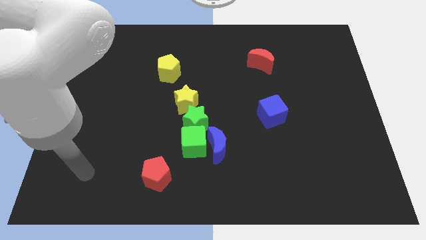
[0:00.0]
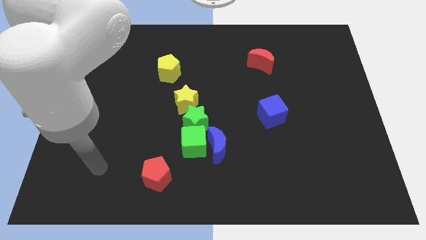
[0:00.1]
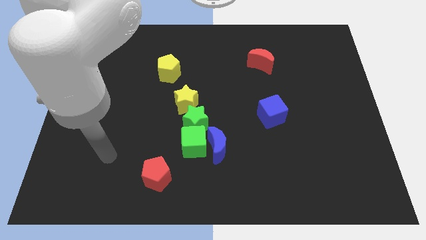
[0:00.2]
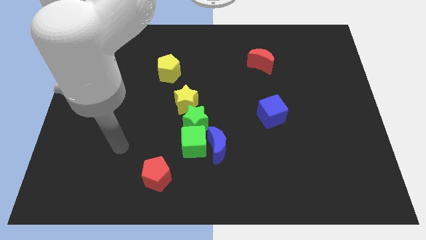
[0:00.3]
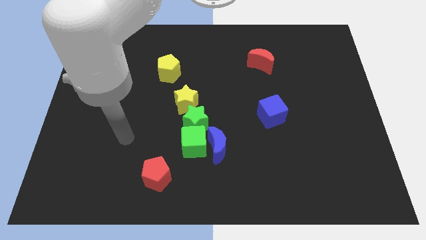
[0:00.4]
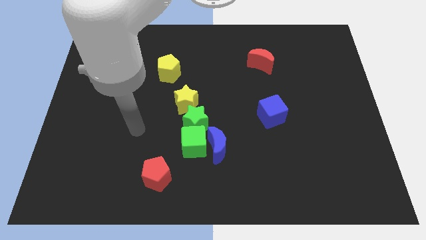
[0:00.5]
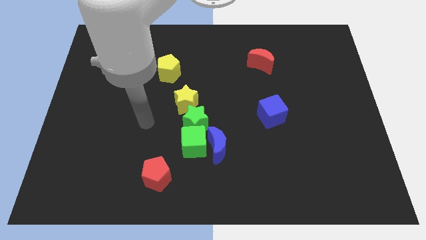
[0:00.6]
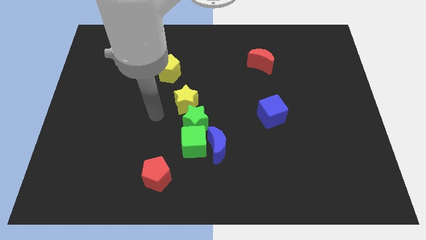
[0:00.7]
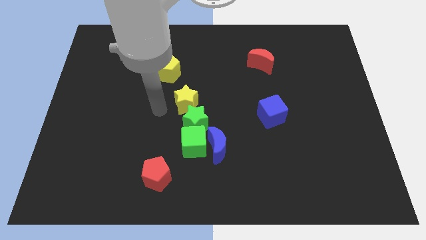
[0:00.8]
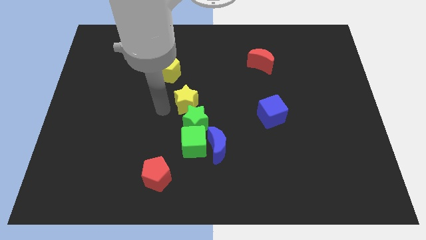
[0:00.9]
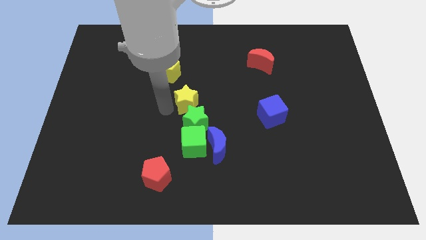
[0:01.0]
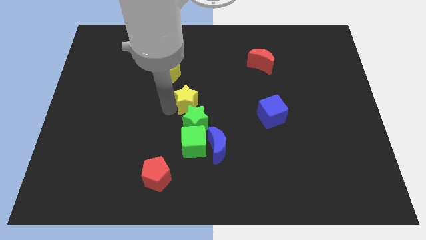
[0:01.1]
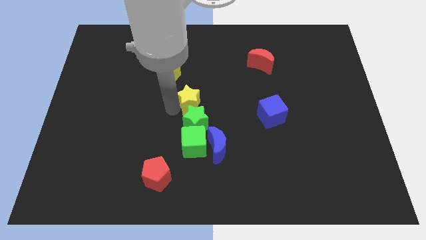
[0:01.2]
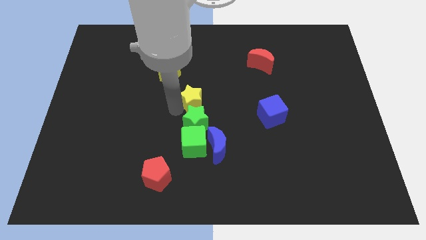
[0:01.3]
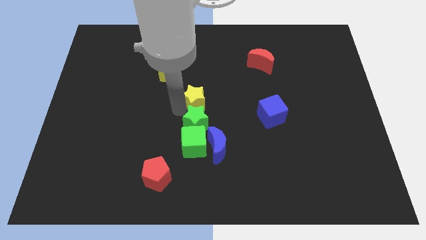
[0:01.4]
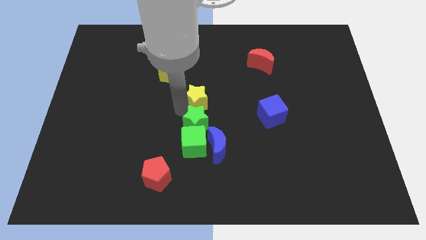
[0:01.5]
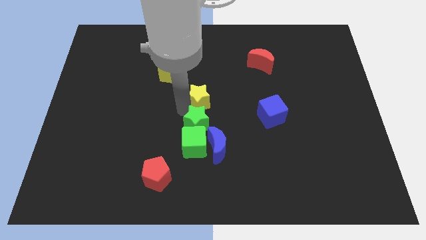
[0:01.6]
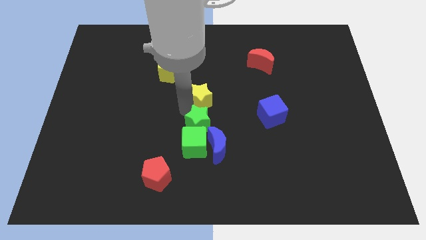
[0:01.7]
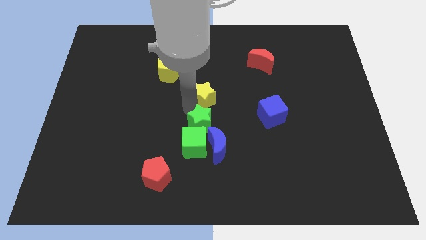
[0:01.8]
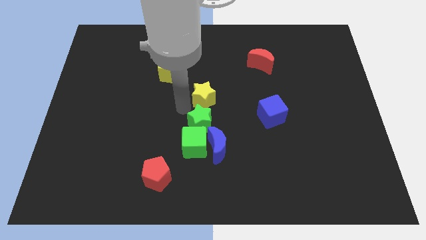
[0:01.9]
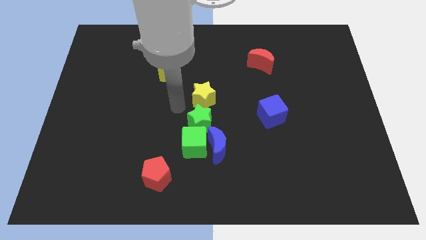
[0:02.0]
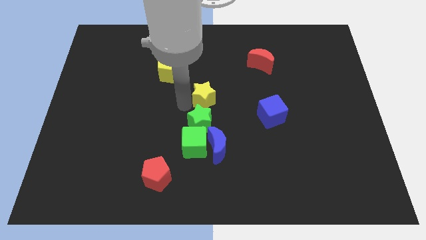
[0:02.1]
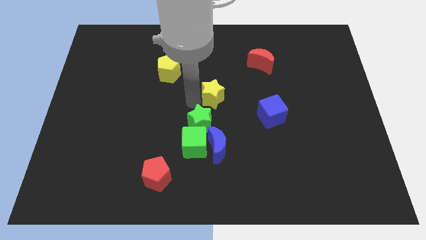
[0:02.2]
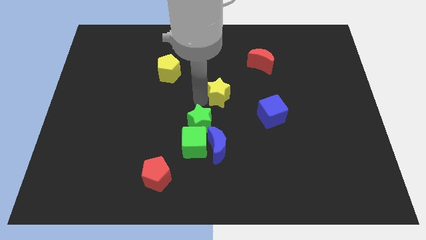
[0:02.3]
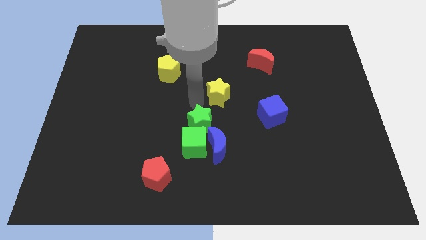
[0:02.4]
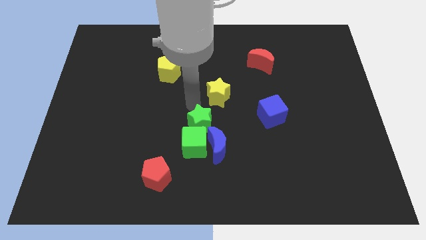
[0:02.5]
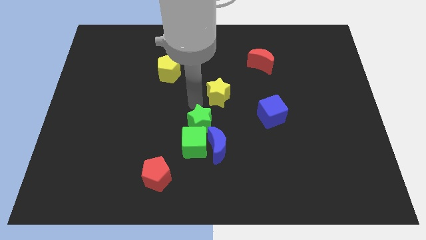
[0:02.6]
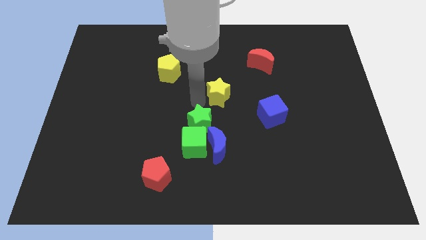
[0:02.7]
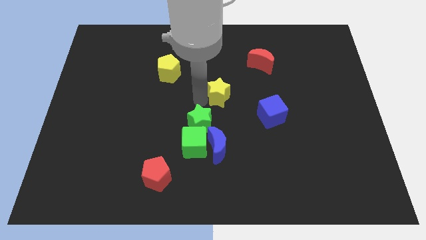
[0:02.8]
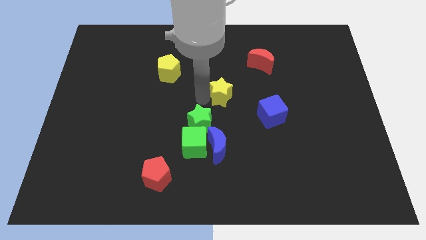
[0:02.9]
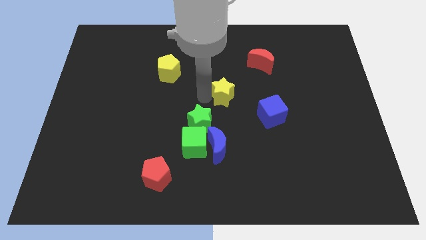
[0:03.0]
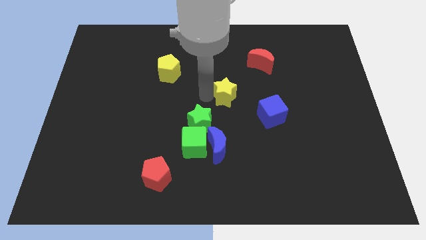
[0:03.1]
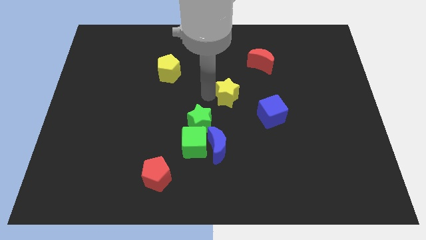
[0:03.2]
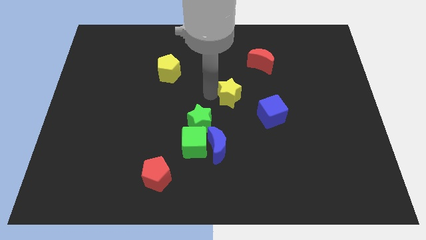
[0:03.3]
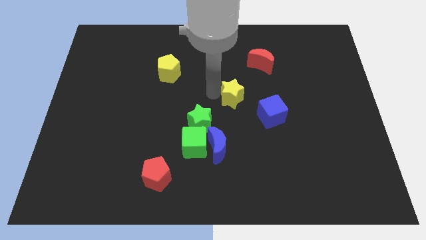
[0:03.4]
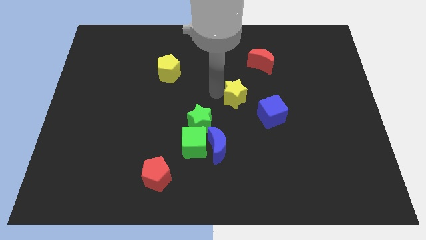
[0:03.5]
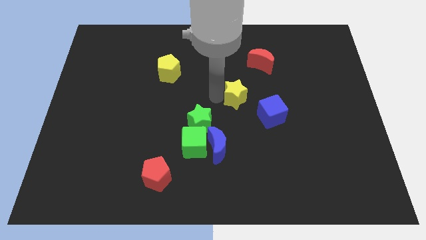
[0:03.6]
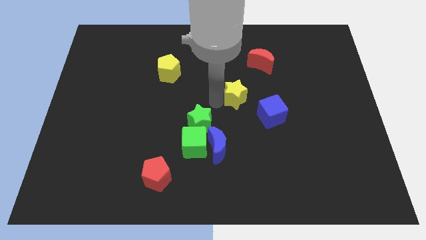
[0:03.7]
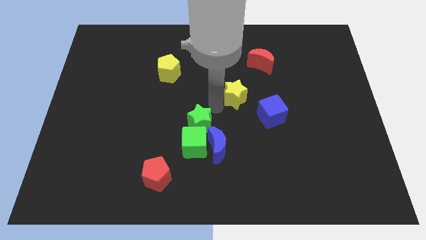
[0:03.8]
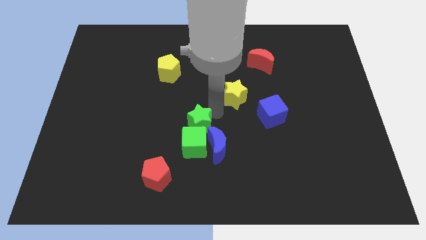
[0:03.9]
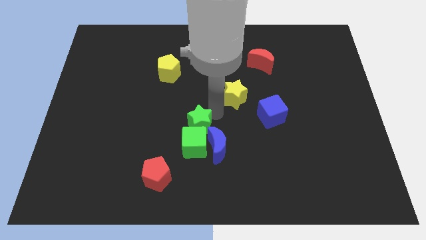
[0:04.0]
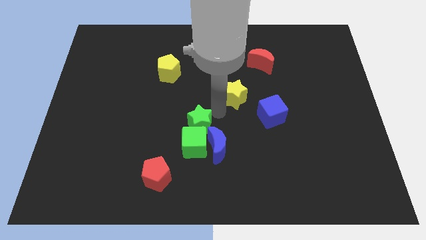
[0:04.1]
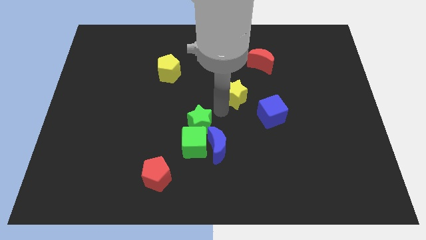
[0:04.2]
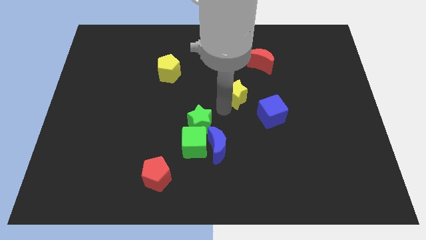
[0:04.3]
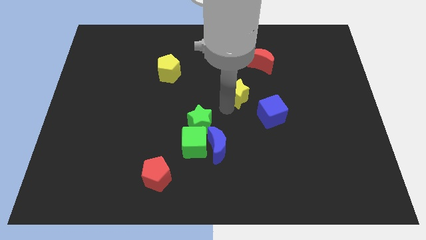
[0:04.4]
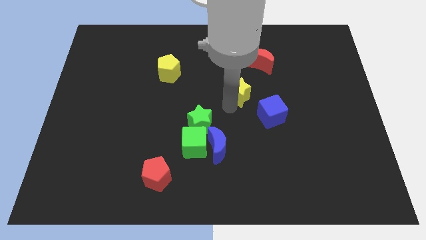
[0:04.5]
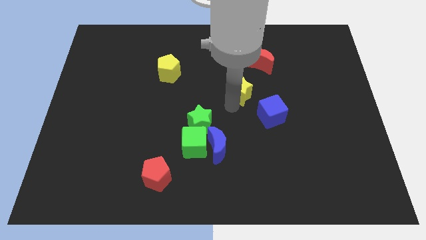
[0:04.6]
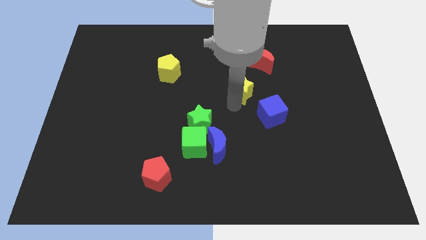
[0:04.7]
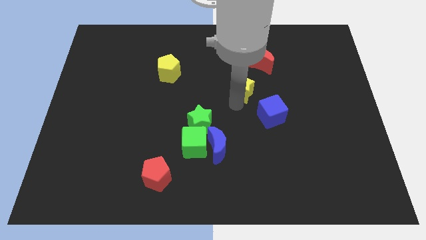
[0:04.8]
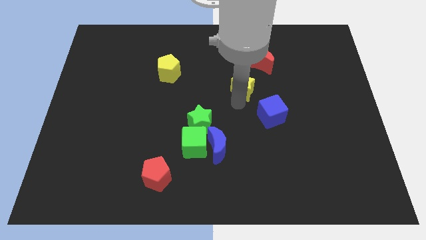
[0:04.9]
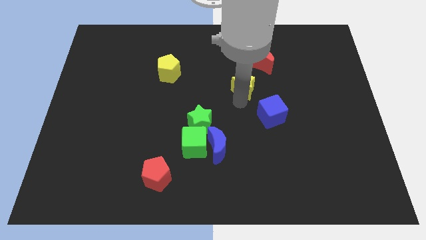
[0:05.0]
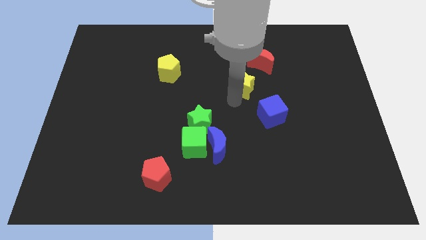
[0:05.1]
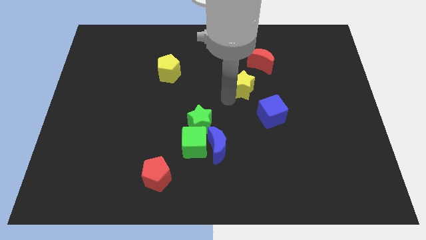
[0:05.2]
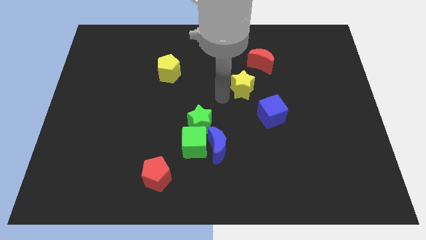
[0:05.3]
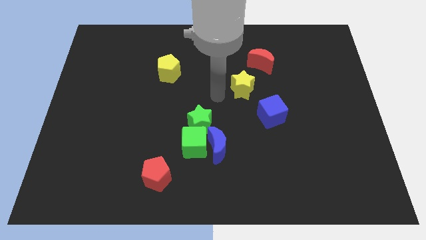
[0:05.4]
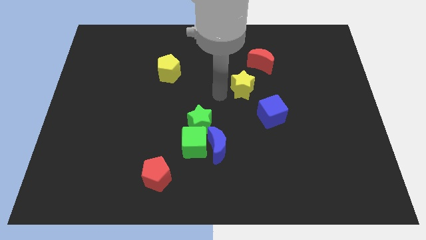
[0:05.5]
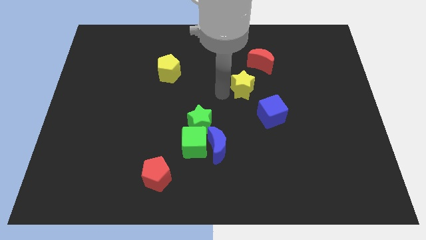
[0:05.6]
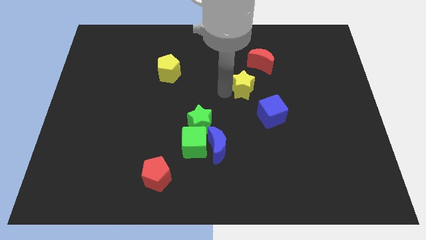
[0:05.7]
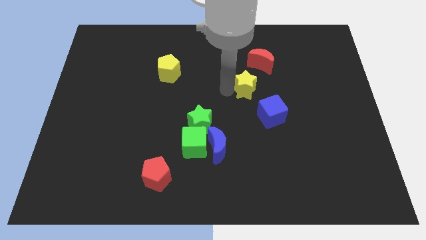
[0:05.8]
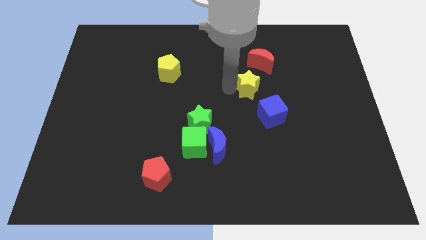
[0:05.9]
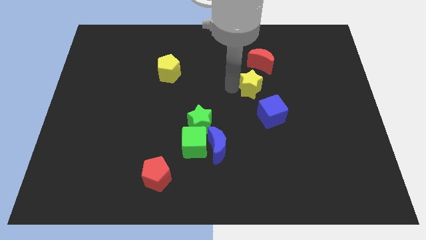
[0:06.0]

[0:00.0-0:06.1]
put the yellow star above the blue cube

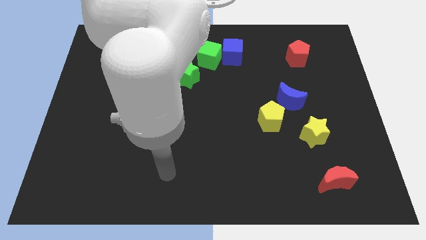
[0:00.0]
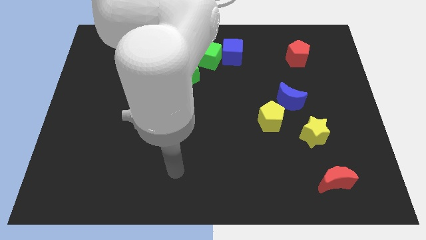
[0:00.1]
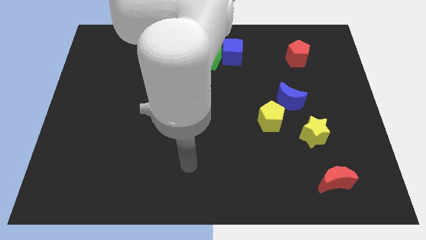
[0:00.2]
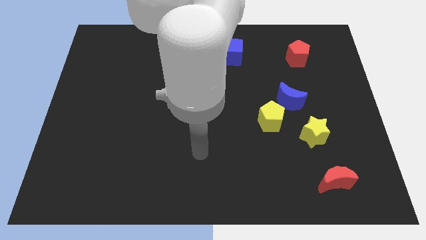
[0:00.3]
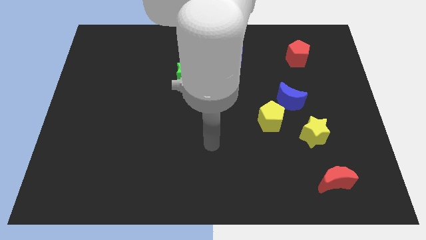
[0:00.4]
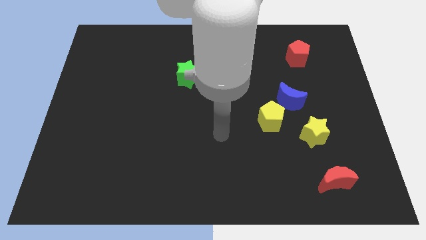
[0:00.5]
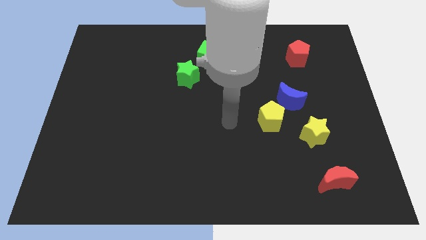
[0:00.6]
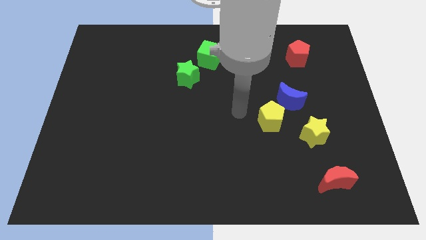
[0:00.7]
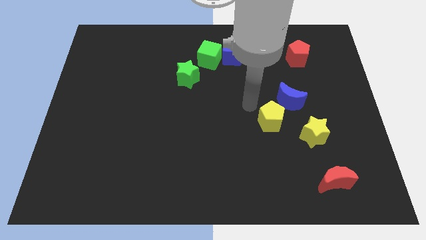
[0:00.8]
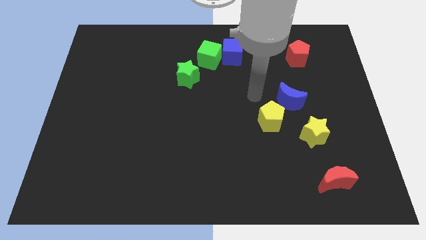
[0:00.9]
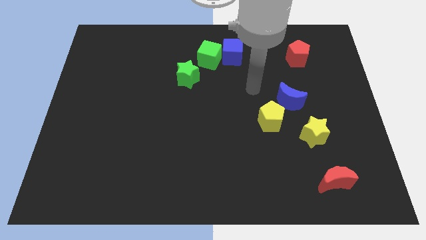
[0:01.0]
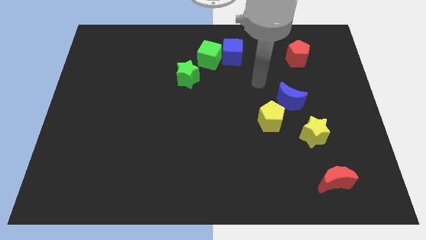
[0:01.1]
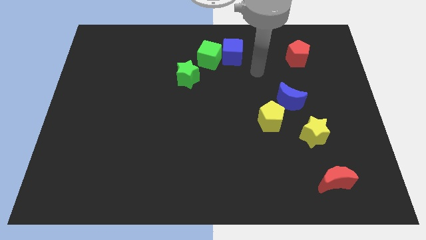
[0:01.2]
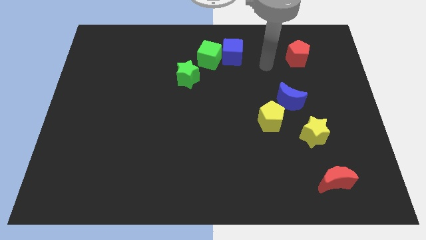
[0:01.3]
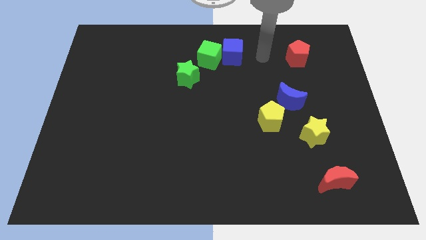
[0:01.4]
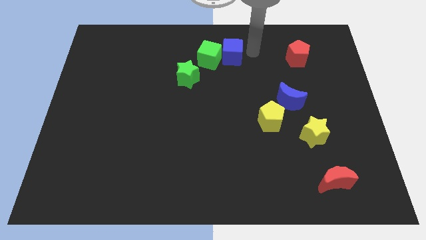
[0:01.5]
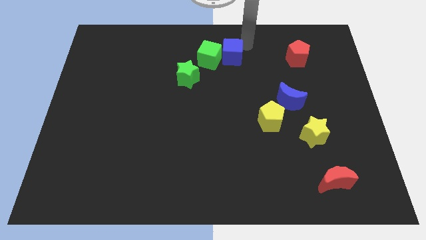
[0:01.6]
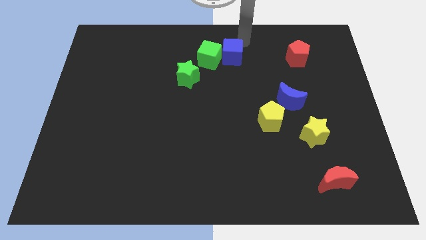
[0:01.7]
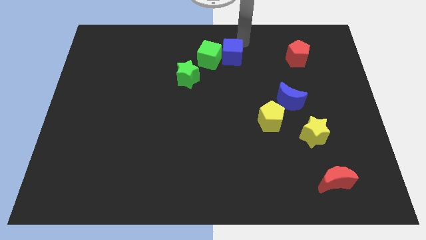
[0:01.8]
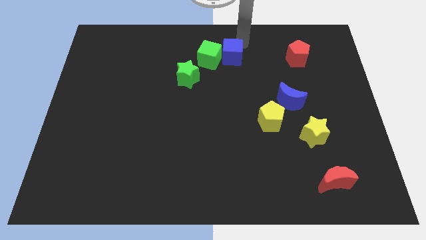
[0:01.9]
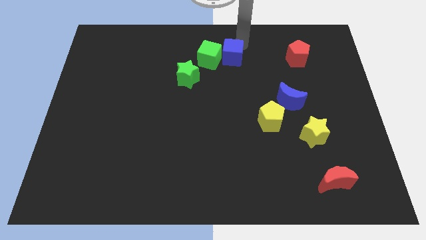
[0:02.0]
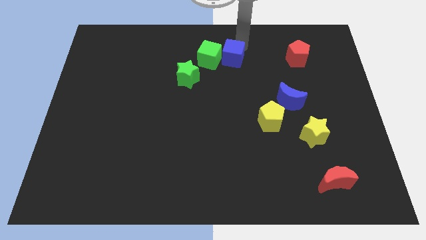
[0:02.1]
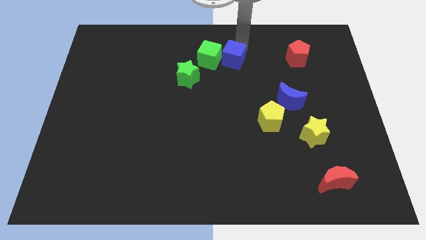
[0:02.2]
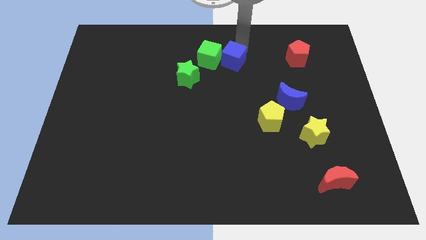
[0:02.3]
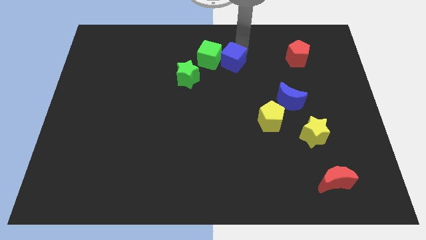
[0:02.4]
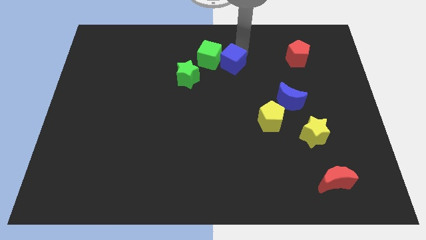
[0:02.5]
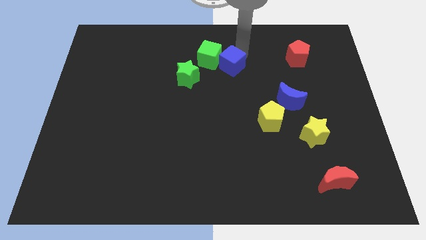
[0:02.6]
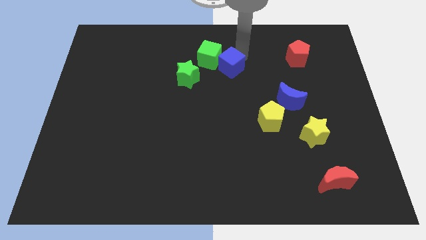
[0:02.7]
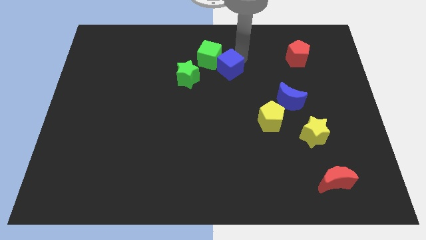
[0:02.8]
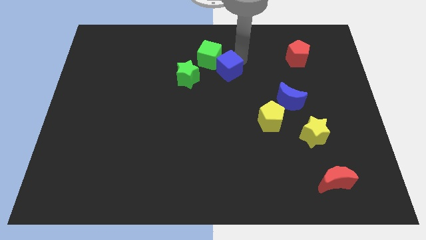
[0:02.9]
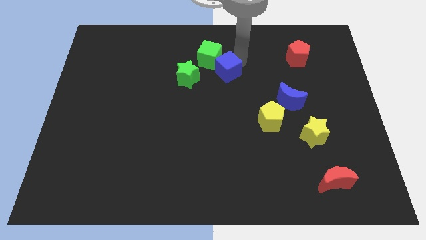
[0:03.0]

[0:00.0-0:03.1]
put the blue cube to the bottom side of the green cube
